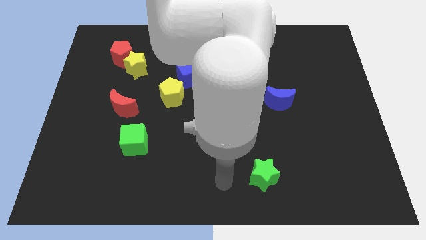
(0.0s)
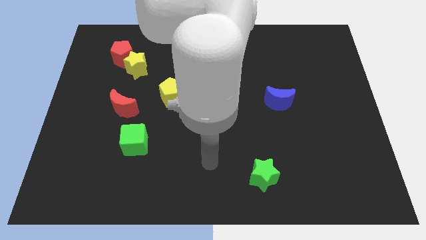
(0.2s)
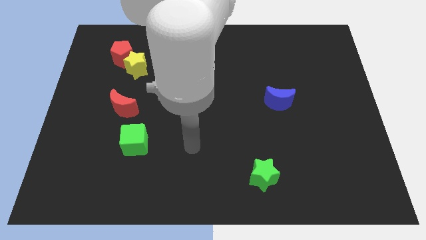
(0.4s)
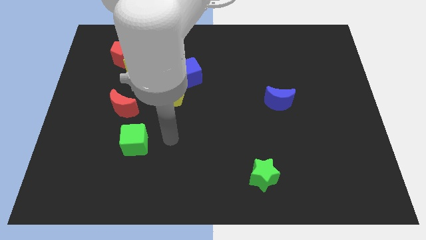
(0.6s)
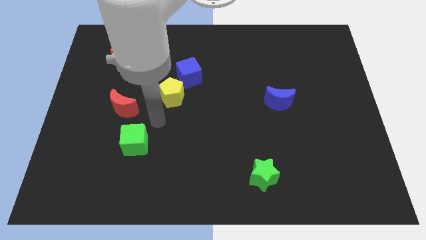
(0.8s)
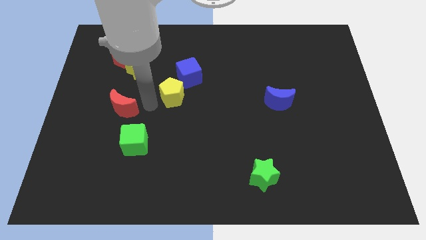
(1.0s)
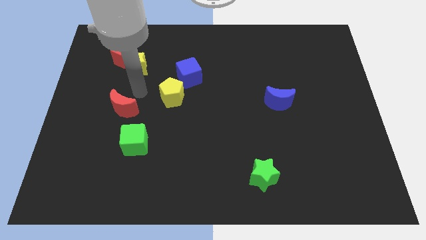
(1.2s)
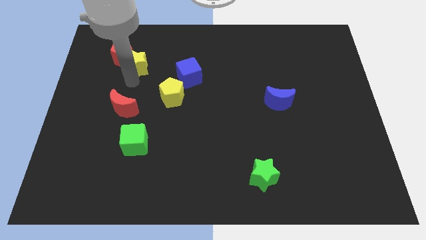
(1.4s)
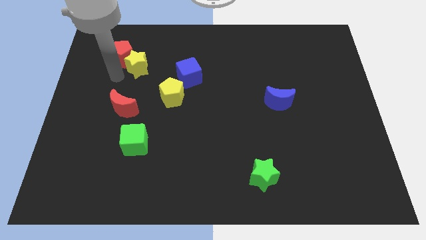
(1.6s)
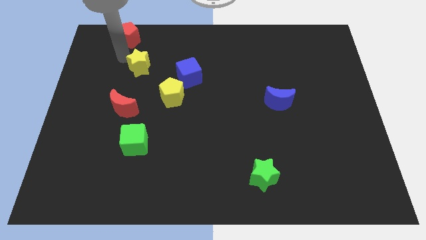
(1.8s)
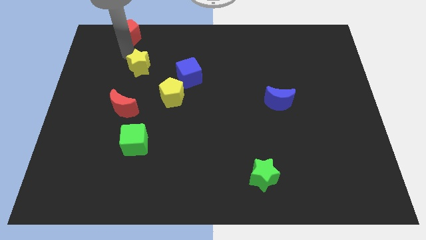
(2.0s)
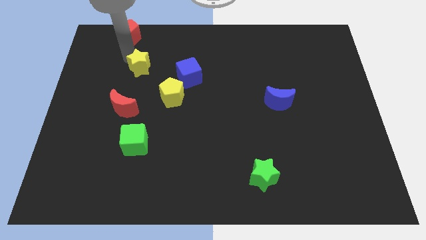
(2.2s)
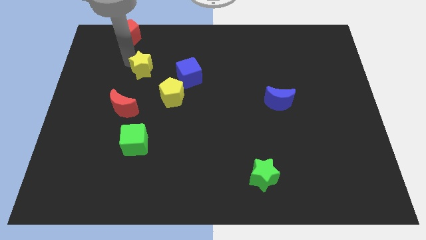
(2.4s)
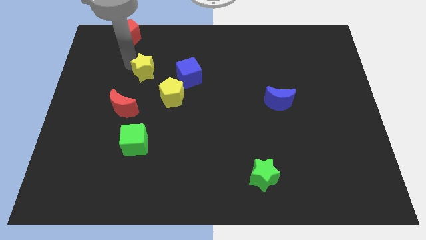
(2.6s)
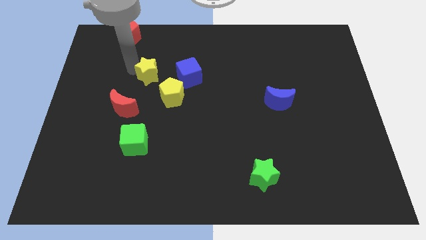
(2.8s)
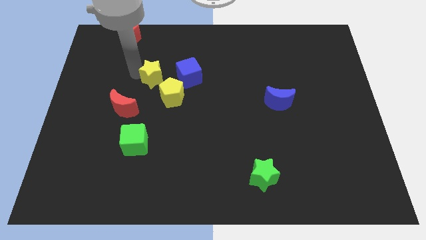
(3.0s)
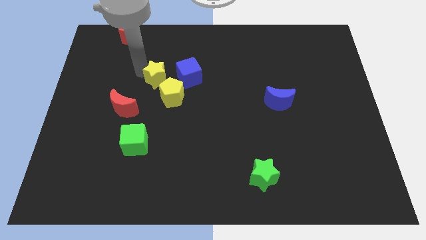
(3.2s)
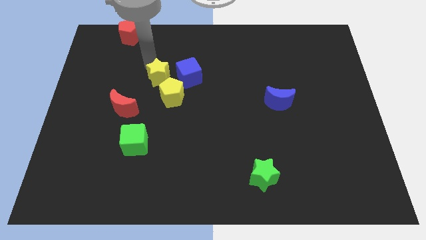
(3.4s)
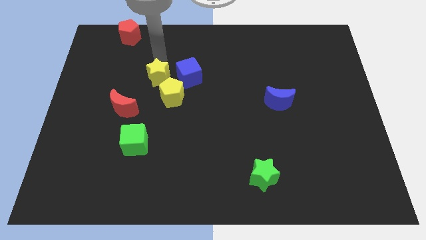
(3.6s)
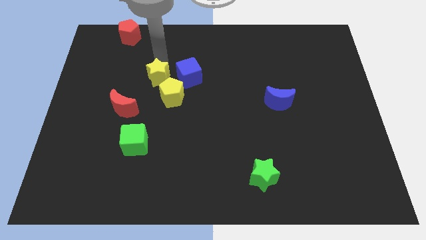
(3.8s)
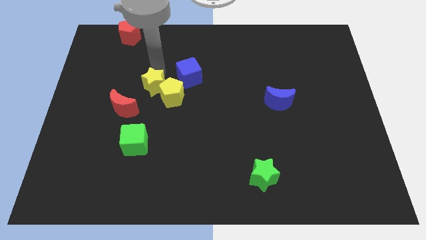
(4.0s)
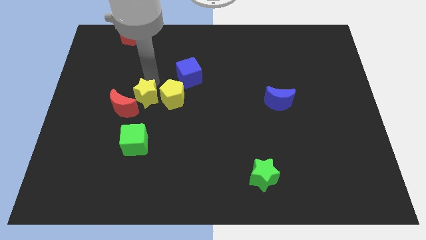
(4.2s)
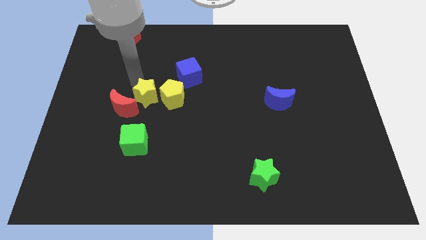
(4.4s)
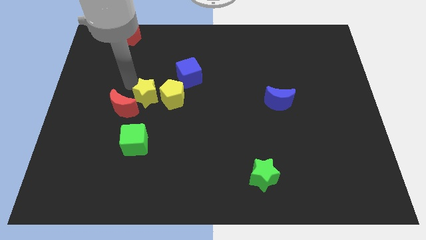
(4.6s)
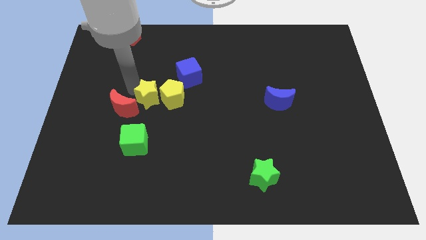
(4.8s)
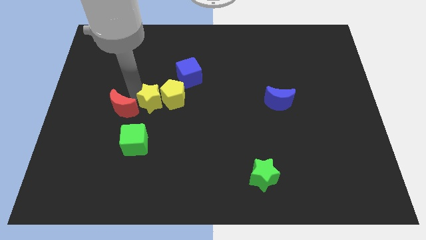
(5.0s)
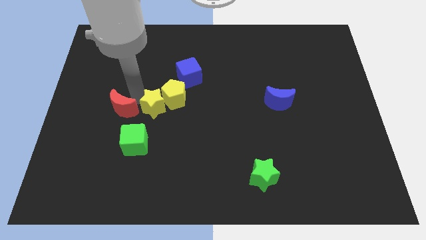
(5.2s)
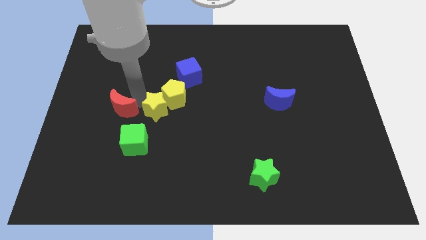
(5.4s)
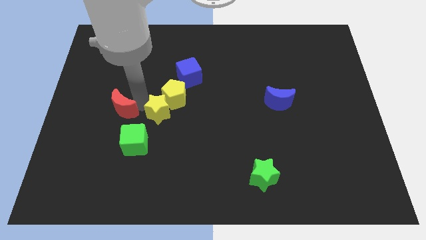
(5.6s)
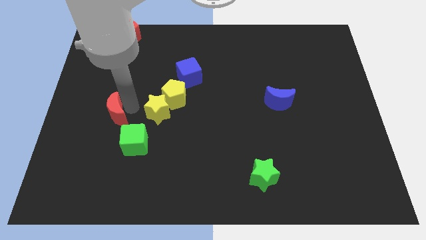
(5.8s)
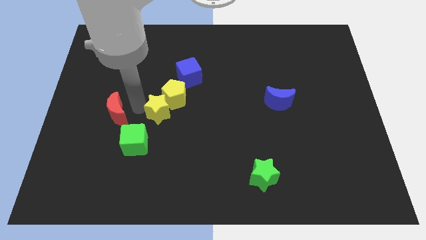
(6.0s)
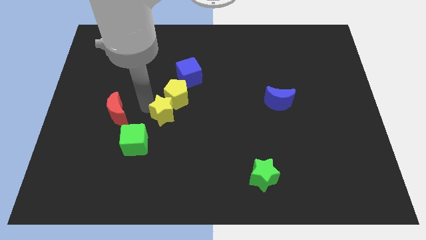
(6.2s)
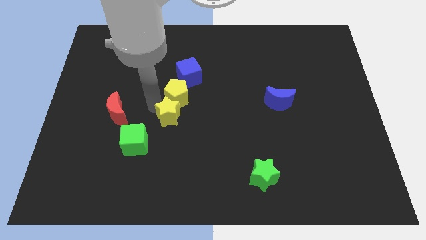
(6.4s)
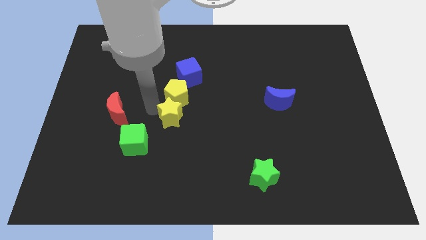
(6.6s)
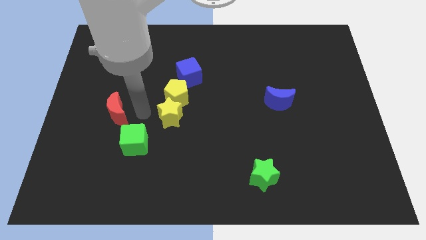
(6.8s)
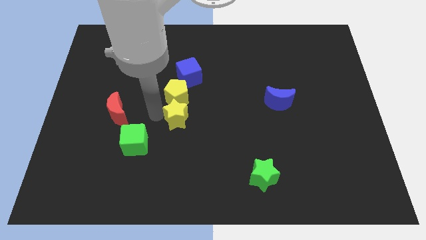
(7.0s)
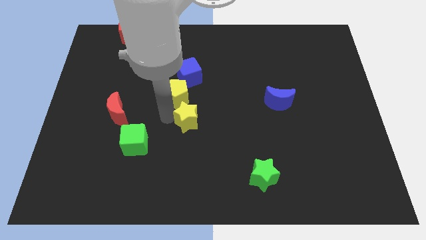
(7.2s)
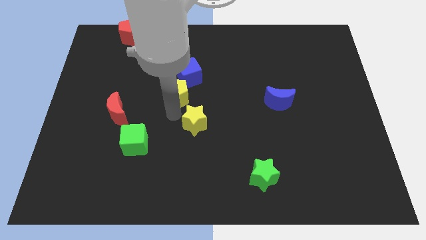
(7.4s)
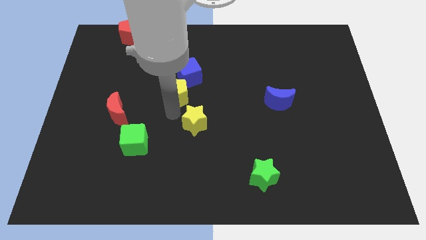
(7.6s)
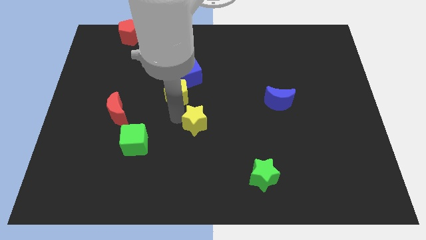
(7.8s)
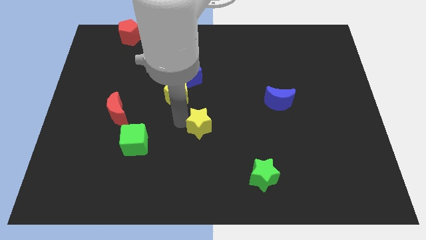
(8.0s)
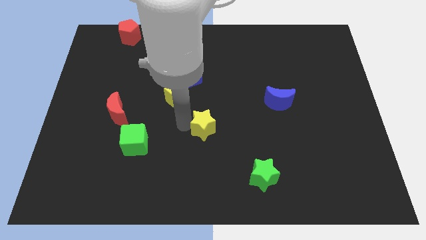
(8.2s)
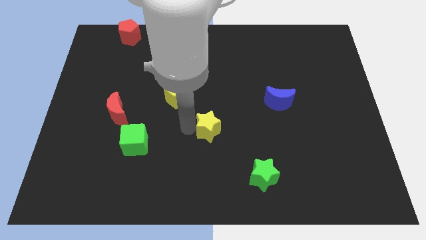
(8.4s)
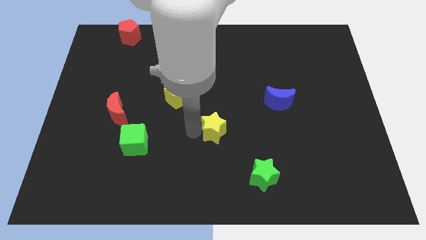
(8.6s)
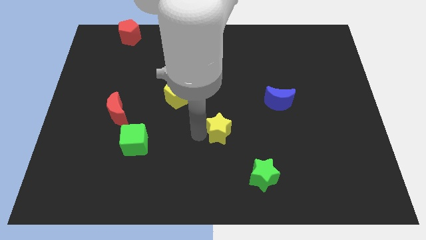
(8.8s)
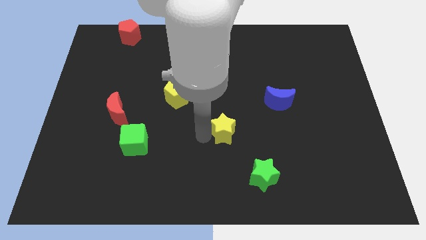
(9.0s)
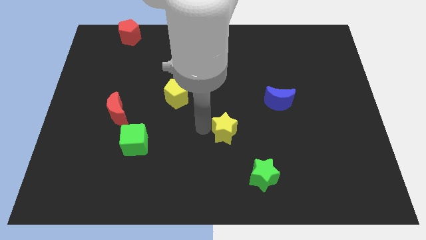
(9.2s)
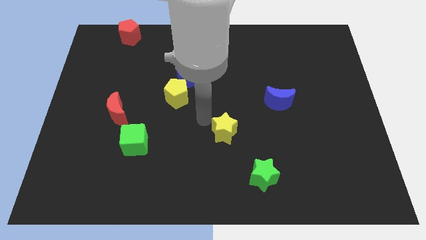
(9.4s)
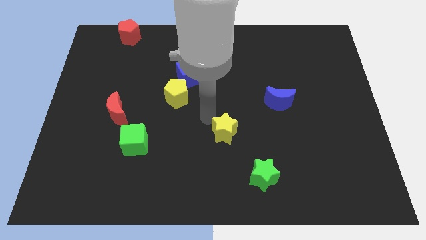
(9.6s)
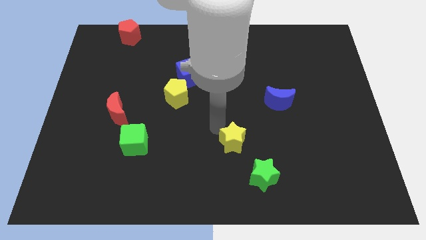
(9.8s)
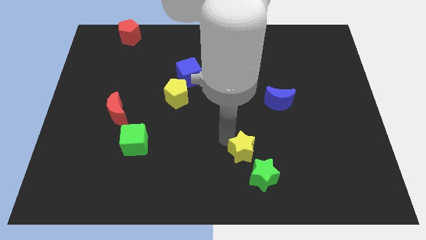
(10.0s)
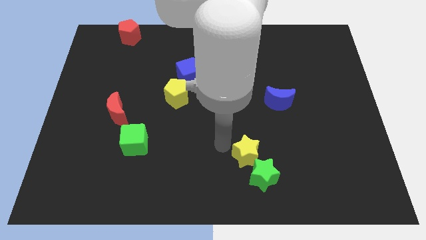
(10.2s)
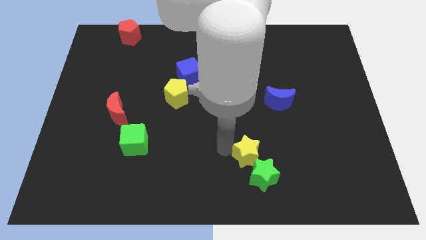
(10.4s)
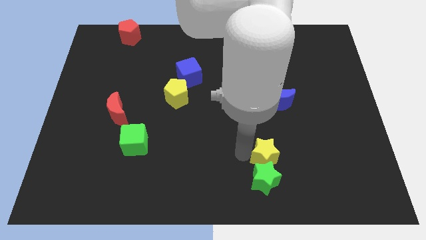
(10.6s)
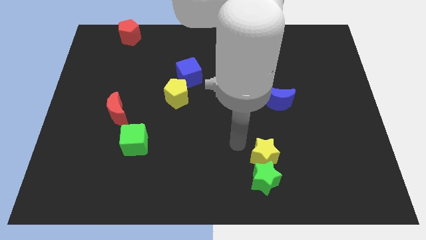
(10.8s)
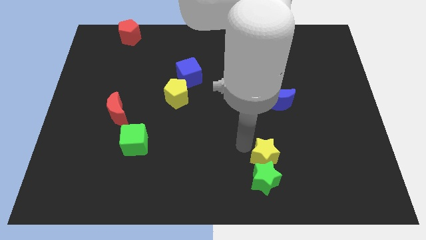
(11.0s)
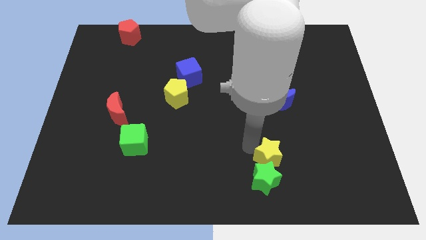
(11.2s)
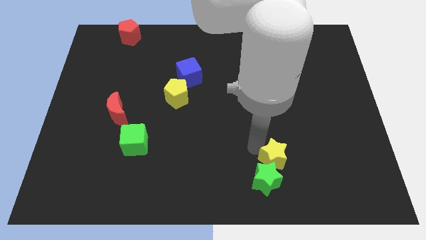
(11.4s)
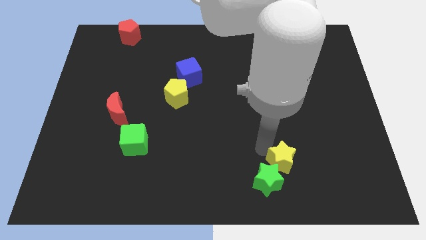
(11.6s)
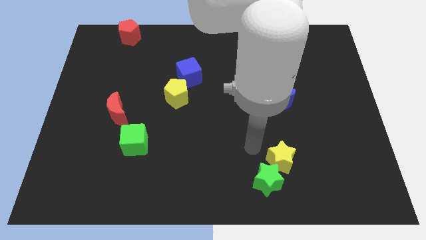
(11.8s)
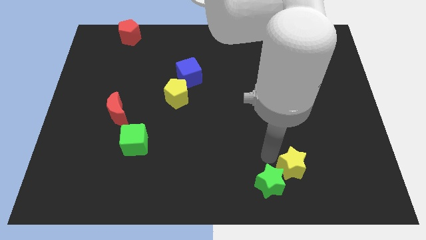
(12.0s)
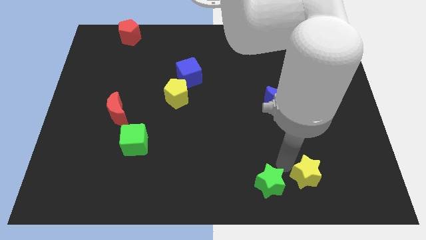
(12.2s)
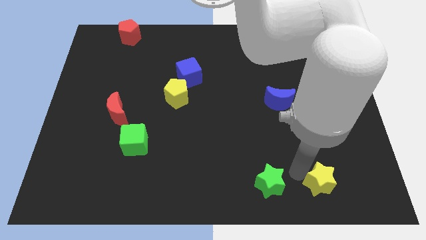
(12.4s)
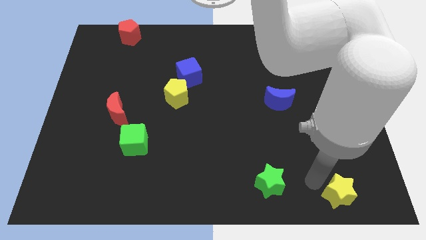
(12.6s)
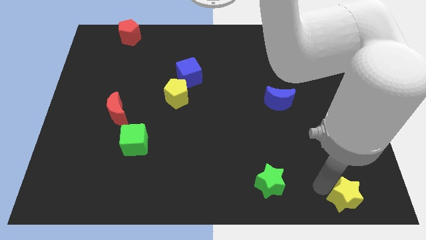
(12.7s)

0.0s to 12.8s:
move the yellow star to the bottom right corner
